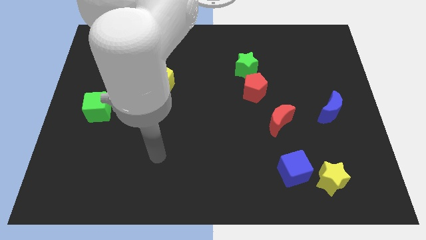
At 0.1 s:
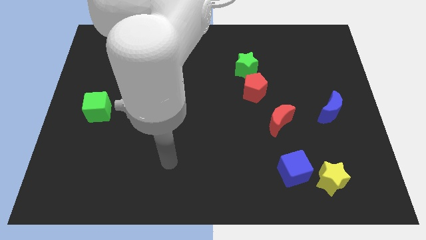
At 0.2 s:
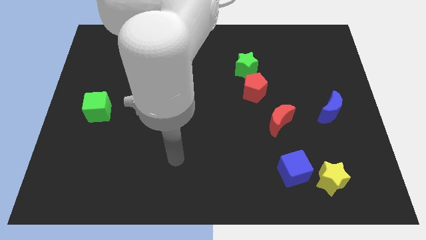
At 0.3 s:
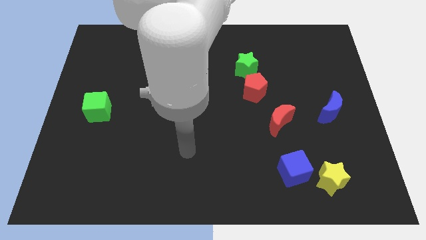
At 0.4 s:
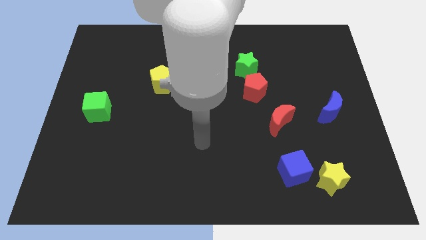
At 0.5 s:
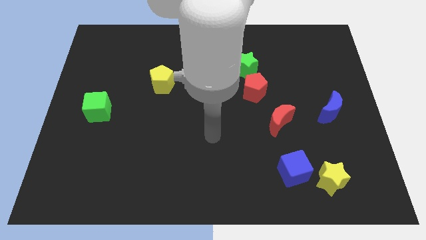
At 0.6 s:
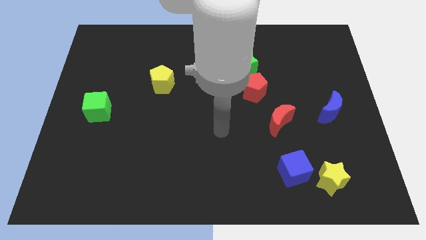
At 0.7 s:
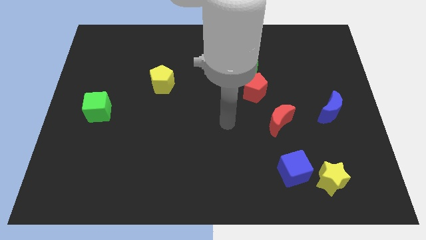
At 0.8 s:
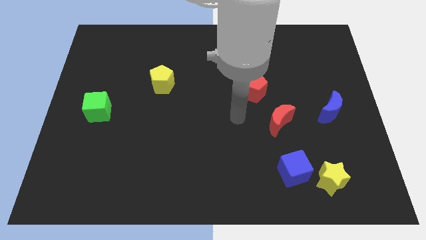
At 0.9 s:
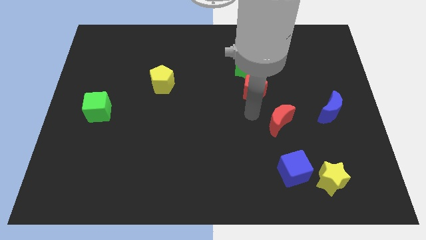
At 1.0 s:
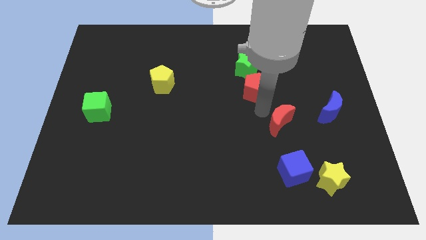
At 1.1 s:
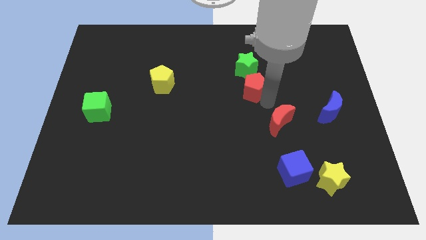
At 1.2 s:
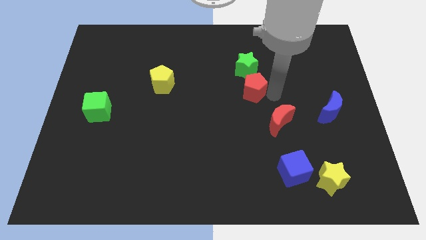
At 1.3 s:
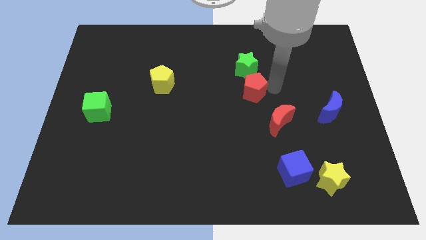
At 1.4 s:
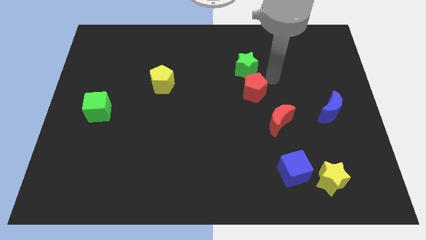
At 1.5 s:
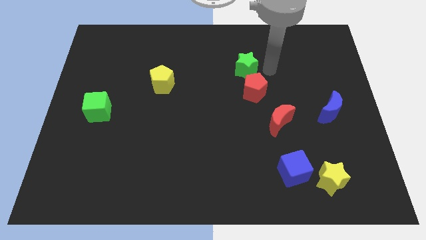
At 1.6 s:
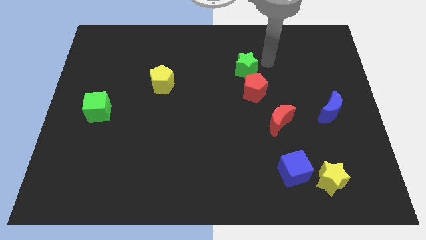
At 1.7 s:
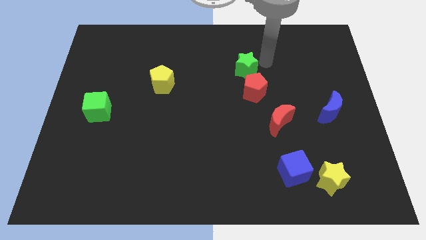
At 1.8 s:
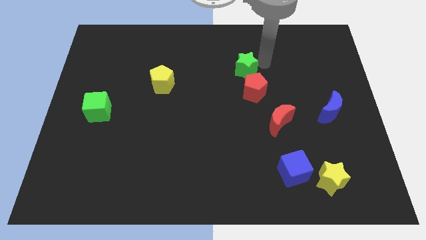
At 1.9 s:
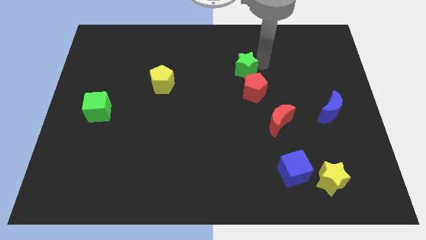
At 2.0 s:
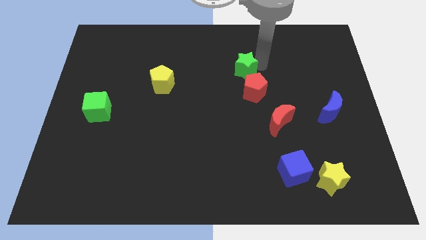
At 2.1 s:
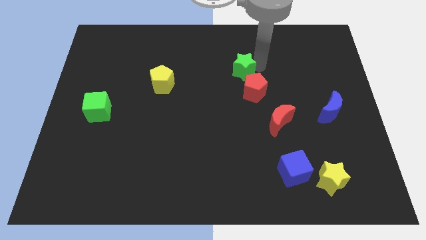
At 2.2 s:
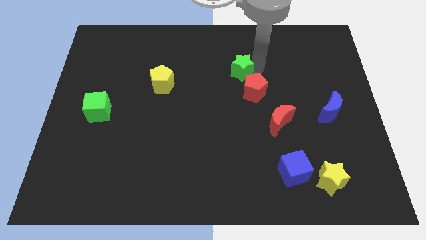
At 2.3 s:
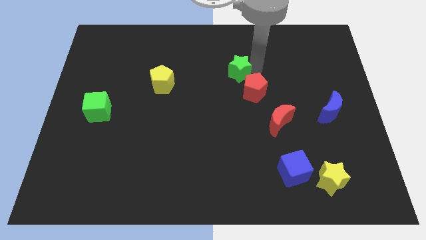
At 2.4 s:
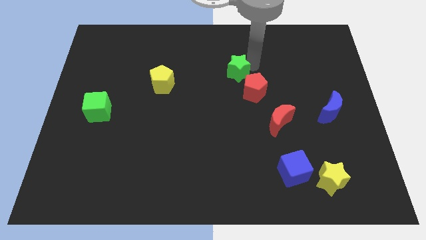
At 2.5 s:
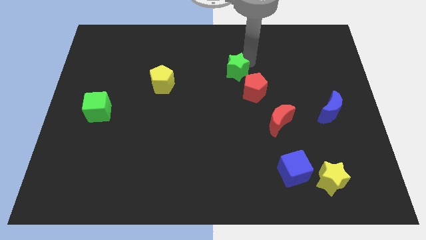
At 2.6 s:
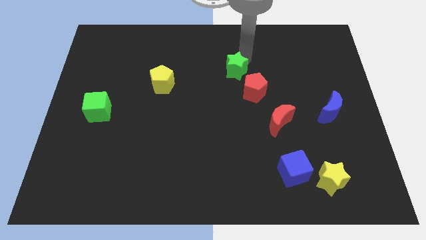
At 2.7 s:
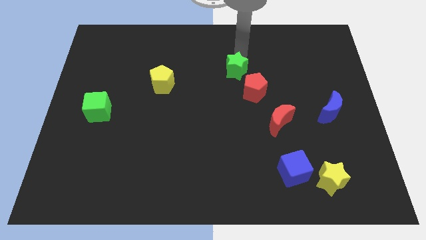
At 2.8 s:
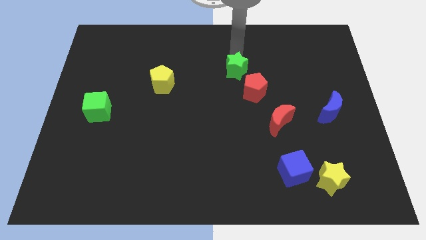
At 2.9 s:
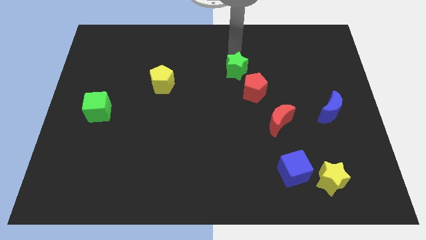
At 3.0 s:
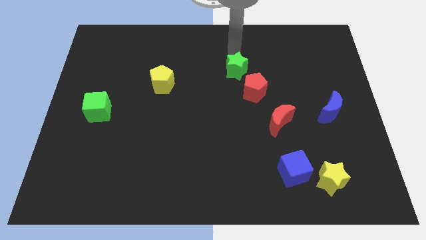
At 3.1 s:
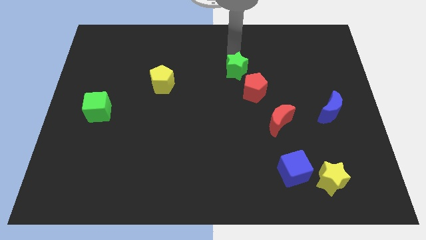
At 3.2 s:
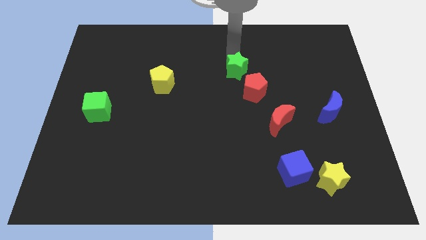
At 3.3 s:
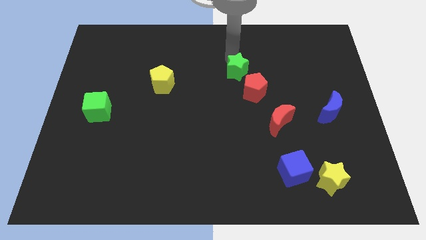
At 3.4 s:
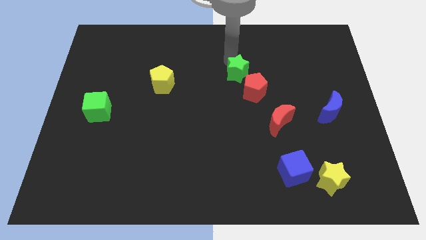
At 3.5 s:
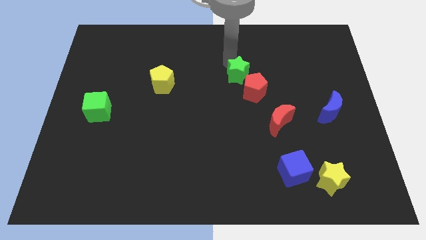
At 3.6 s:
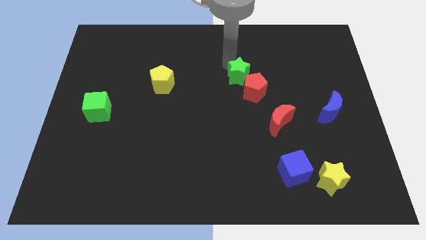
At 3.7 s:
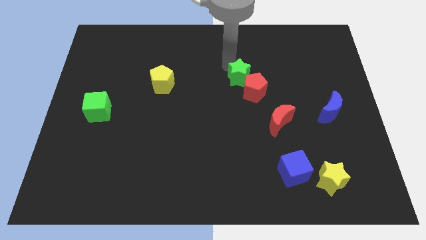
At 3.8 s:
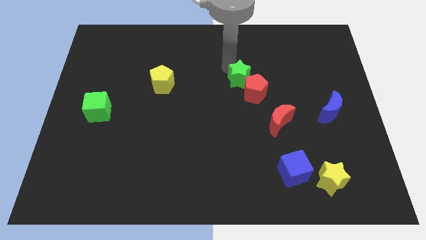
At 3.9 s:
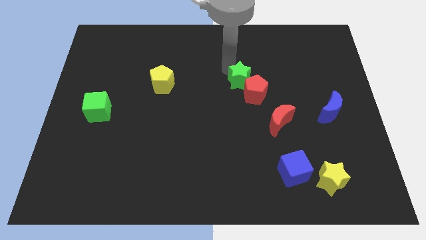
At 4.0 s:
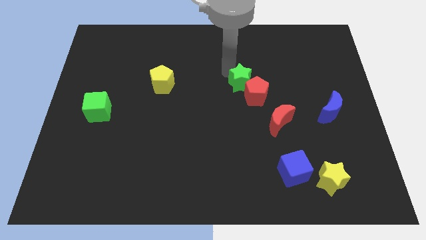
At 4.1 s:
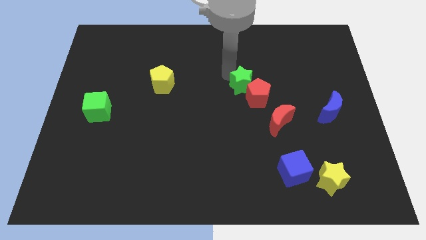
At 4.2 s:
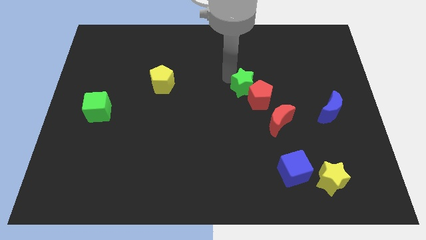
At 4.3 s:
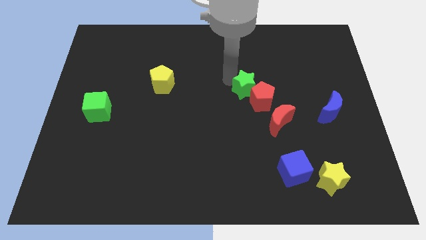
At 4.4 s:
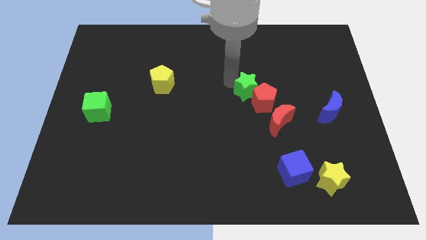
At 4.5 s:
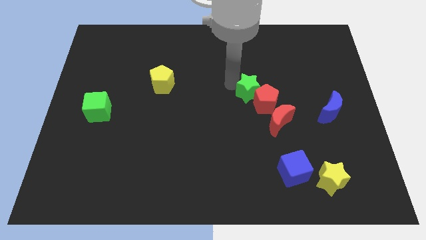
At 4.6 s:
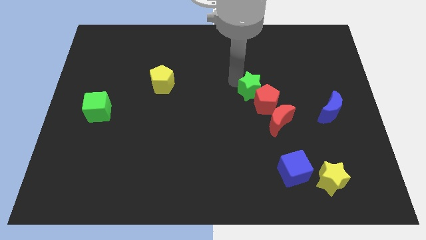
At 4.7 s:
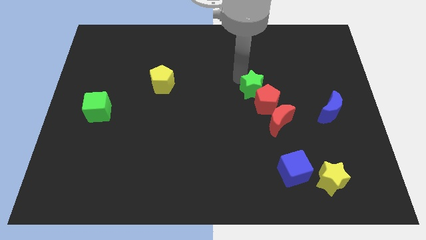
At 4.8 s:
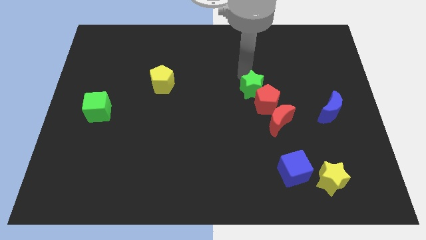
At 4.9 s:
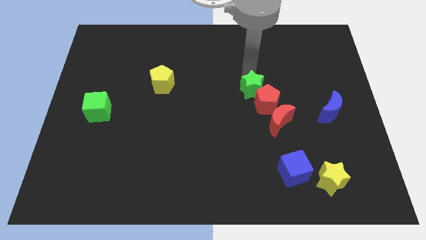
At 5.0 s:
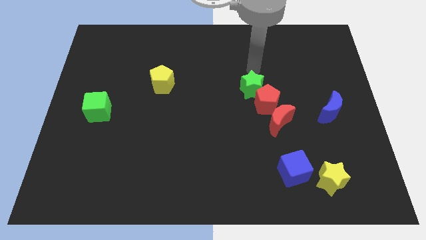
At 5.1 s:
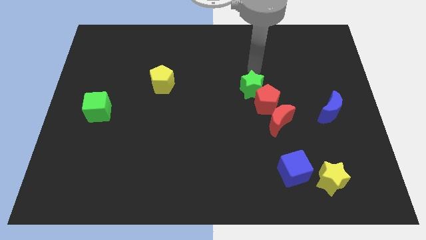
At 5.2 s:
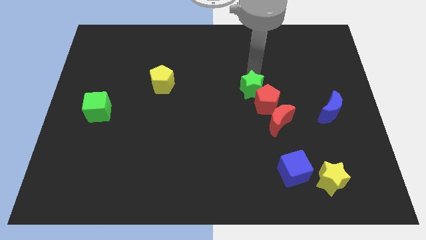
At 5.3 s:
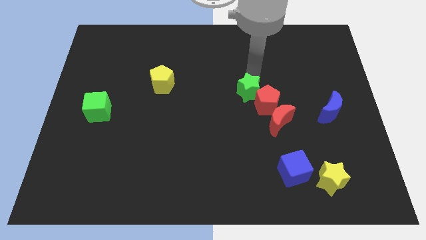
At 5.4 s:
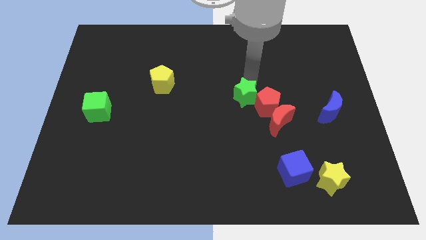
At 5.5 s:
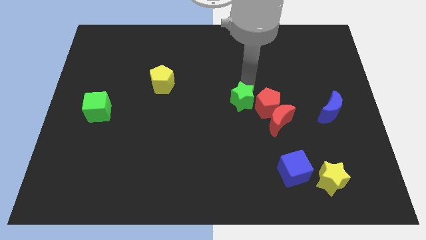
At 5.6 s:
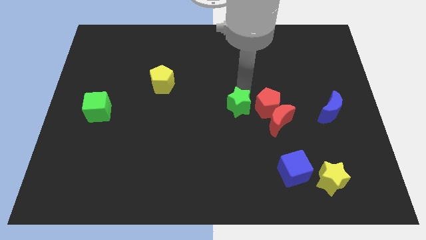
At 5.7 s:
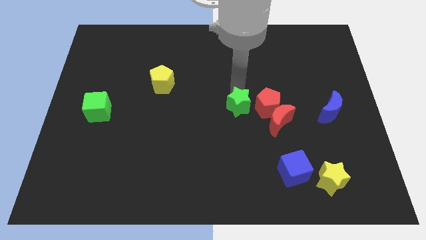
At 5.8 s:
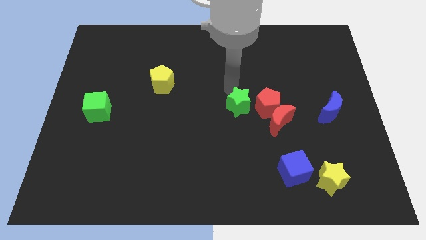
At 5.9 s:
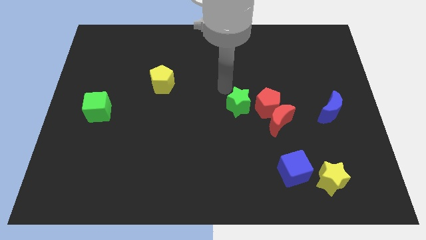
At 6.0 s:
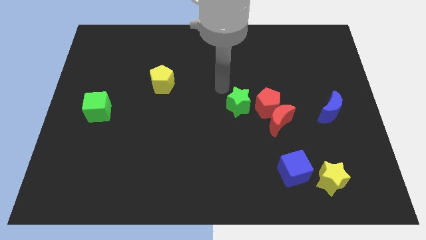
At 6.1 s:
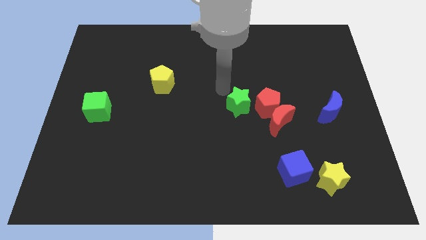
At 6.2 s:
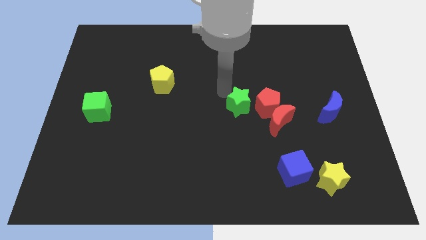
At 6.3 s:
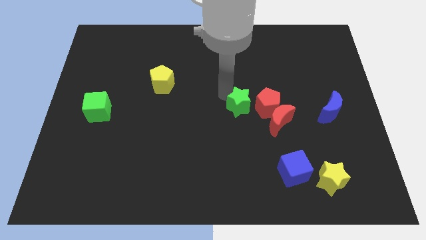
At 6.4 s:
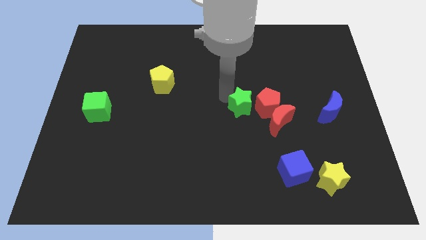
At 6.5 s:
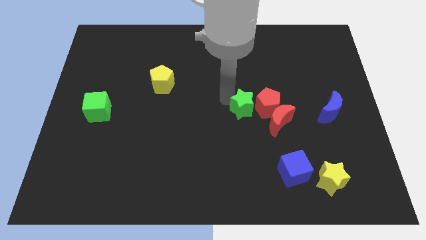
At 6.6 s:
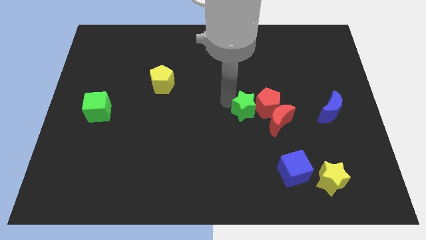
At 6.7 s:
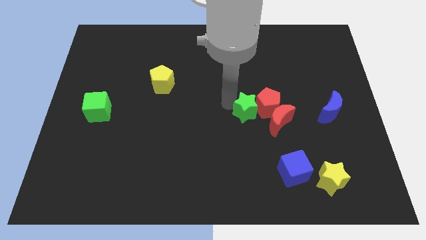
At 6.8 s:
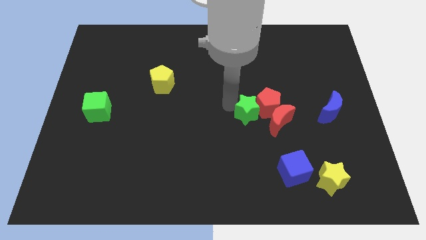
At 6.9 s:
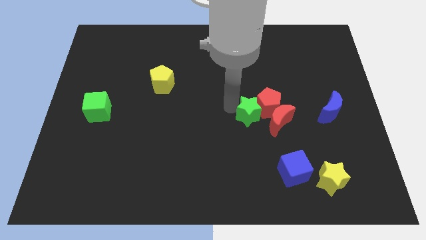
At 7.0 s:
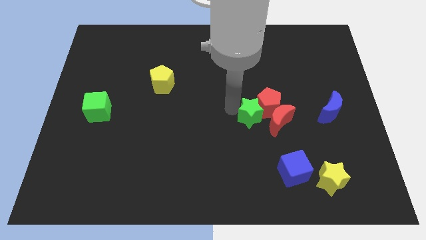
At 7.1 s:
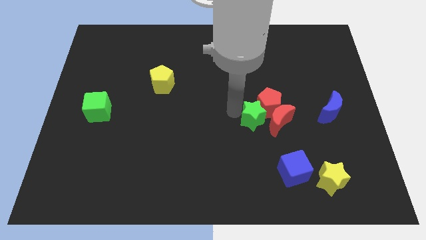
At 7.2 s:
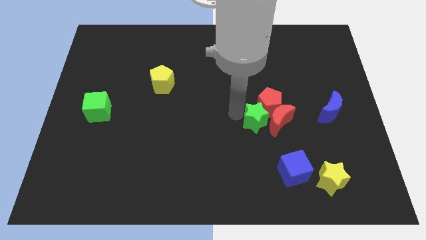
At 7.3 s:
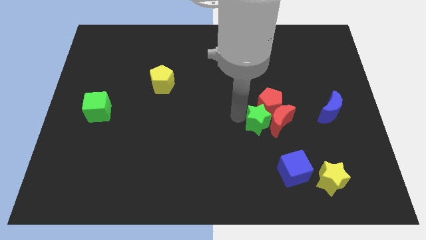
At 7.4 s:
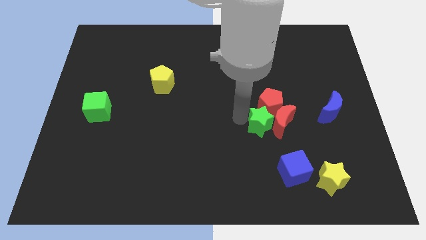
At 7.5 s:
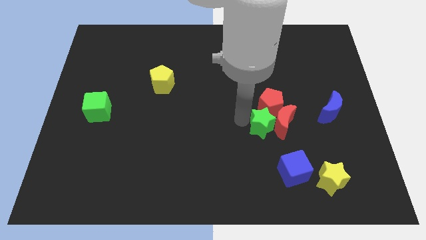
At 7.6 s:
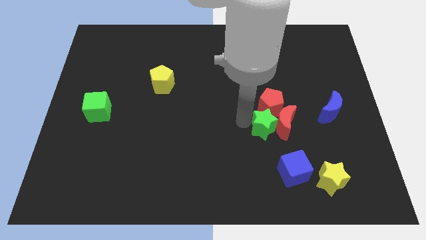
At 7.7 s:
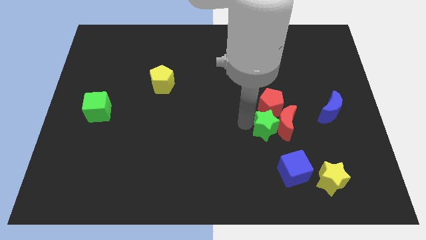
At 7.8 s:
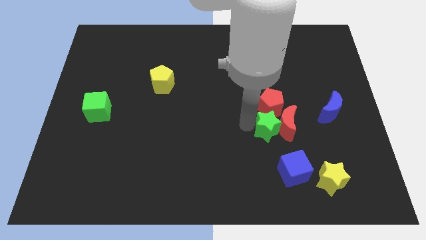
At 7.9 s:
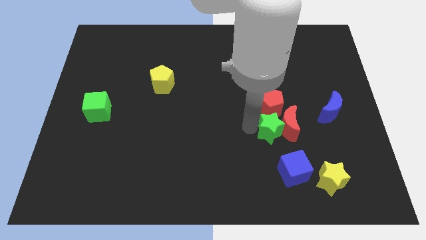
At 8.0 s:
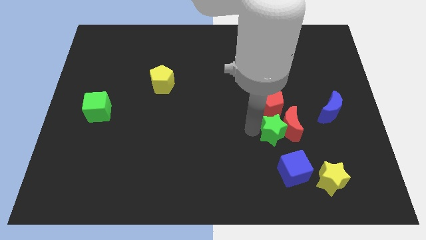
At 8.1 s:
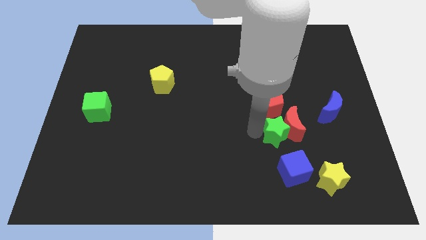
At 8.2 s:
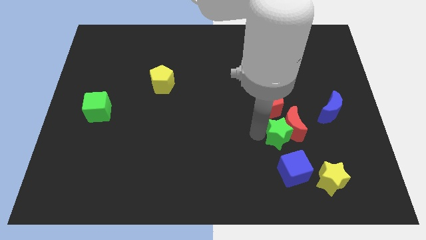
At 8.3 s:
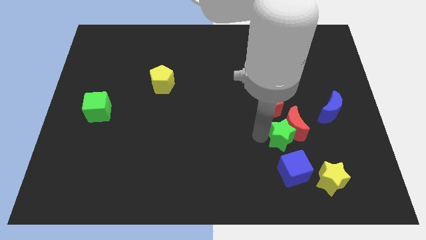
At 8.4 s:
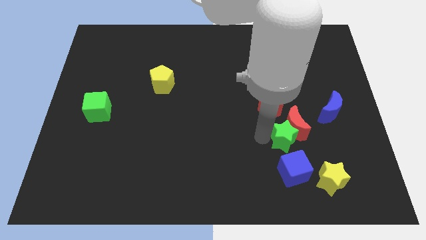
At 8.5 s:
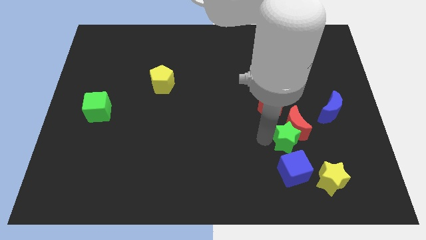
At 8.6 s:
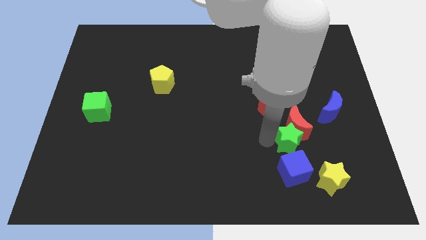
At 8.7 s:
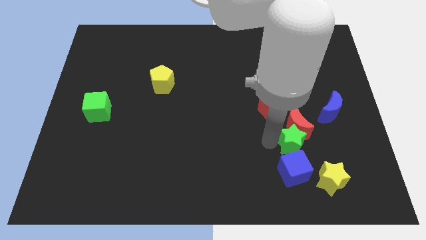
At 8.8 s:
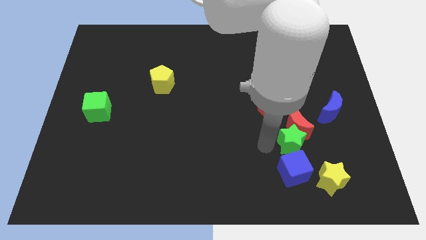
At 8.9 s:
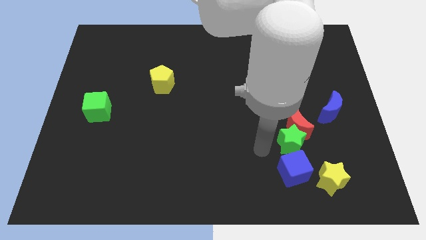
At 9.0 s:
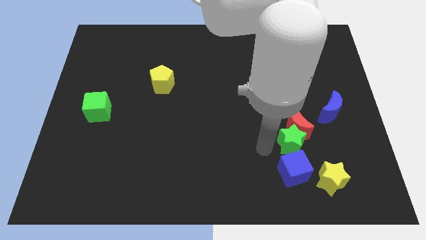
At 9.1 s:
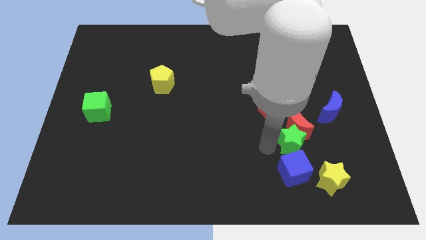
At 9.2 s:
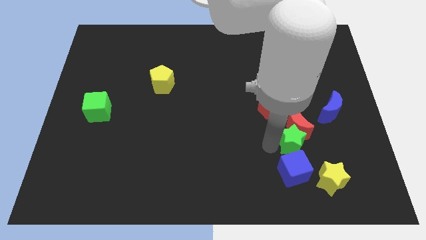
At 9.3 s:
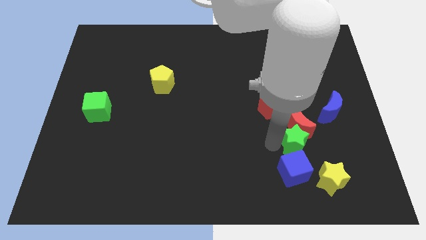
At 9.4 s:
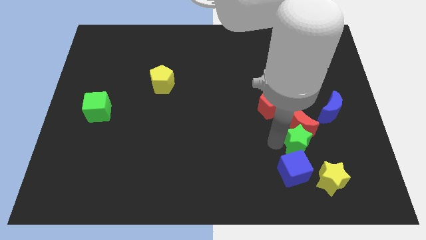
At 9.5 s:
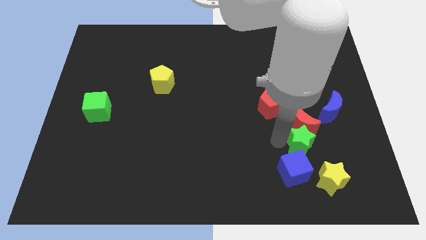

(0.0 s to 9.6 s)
put the green star above the yellow star
